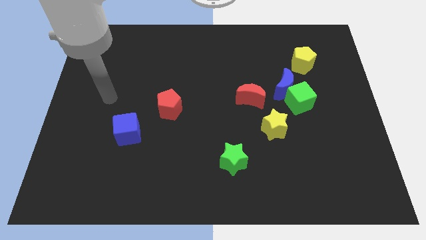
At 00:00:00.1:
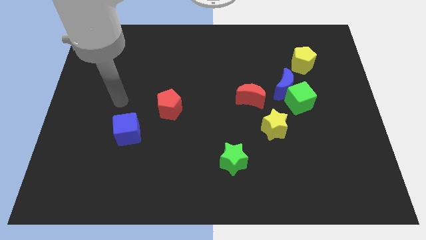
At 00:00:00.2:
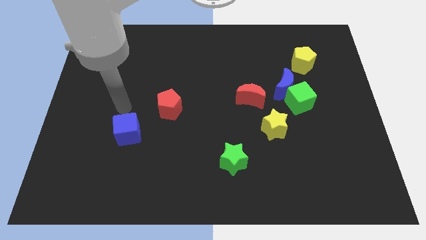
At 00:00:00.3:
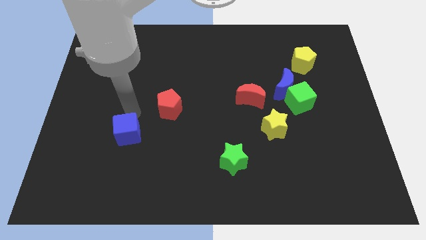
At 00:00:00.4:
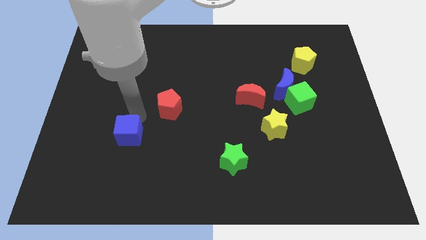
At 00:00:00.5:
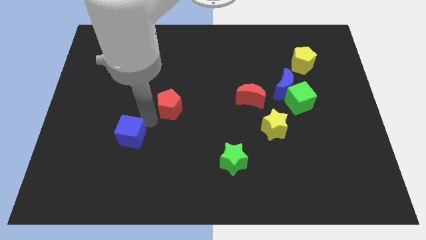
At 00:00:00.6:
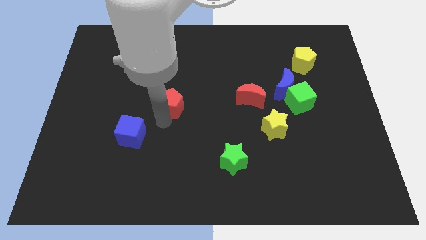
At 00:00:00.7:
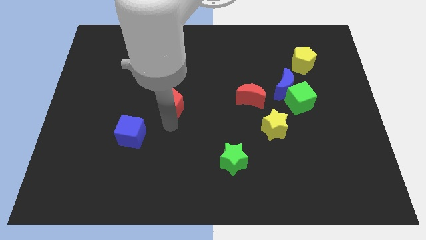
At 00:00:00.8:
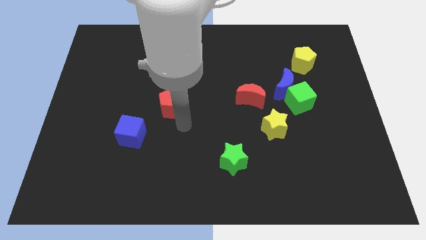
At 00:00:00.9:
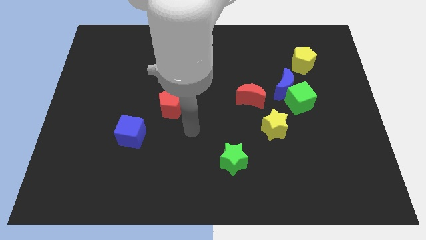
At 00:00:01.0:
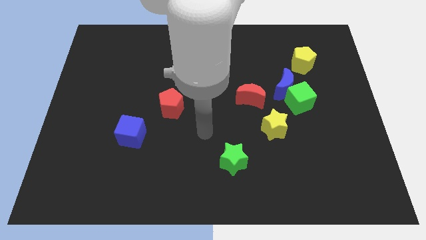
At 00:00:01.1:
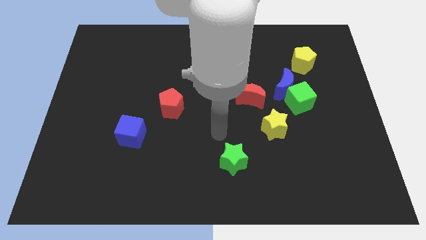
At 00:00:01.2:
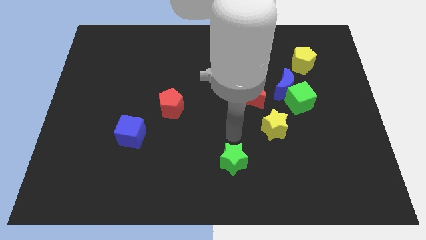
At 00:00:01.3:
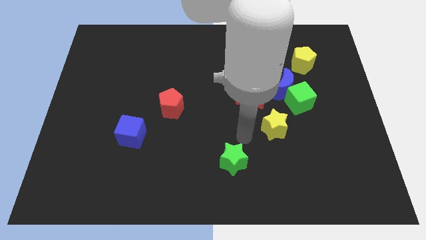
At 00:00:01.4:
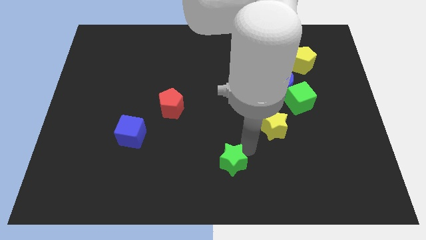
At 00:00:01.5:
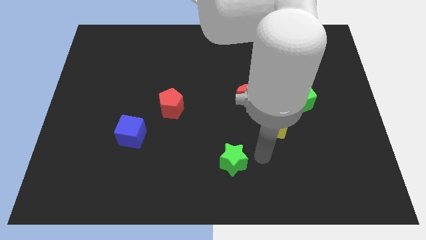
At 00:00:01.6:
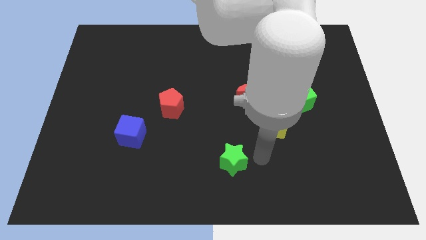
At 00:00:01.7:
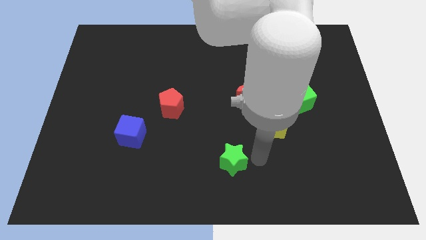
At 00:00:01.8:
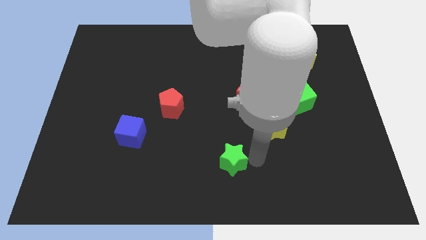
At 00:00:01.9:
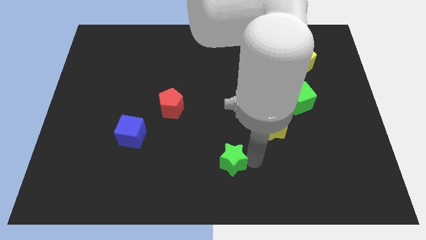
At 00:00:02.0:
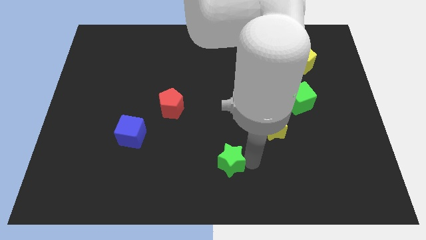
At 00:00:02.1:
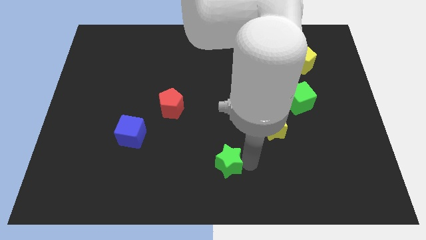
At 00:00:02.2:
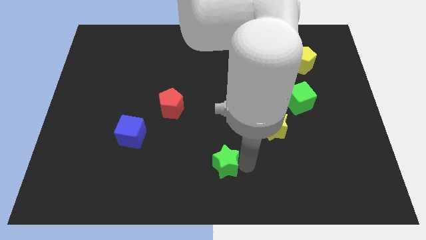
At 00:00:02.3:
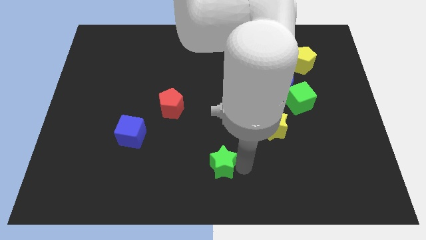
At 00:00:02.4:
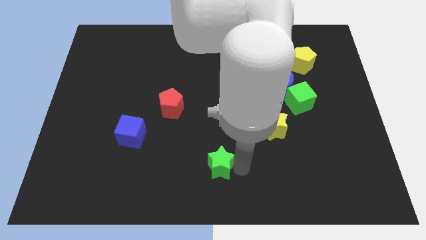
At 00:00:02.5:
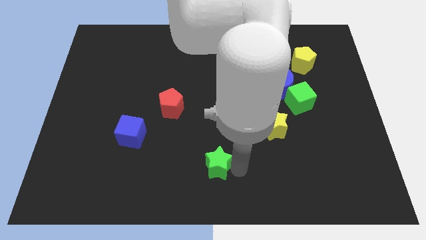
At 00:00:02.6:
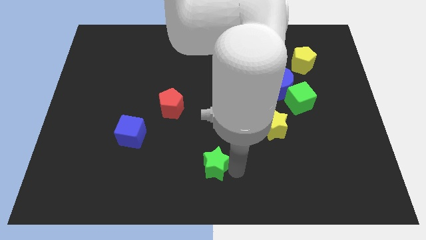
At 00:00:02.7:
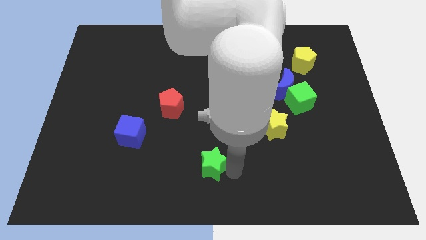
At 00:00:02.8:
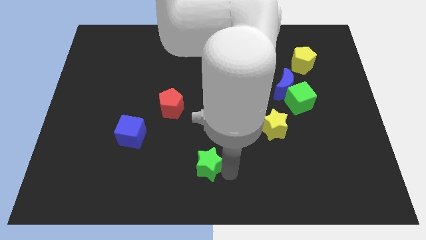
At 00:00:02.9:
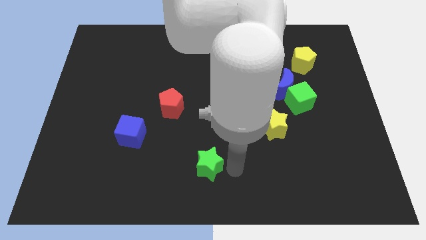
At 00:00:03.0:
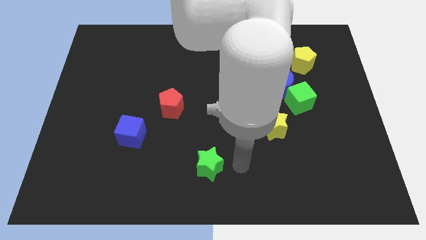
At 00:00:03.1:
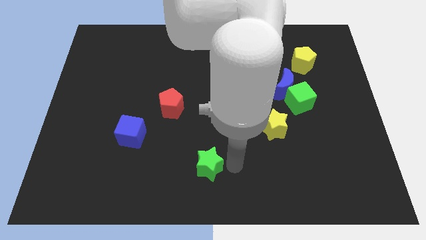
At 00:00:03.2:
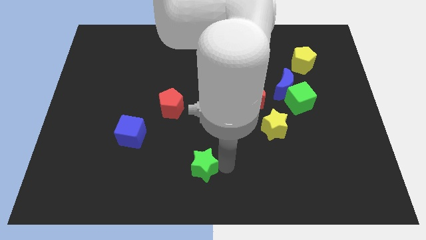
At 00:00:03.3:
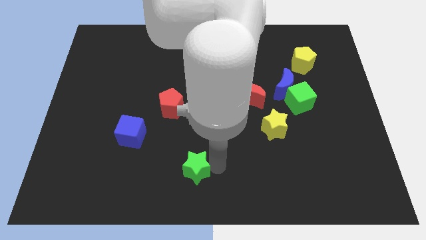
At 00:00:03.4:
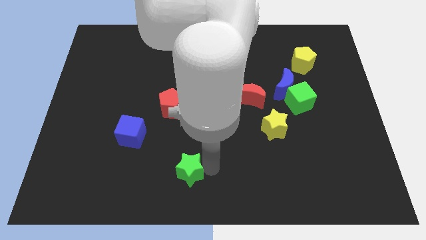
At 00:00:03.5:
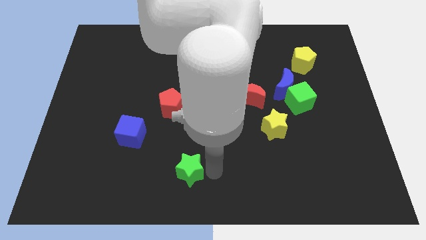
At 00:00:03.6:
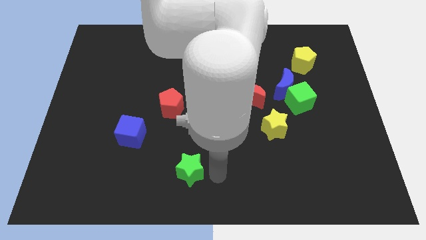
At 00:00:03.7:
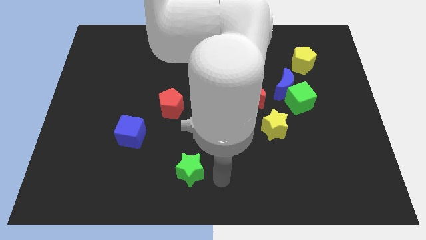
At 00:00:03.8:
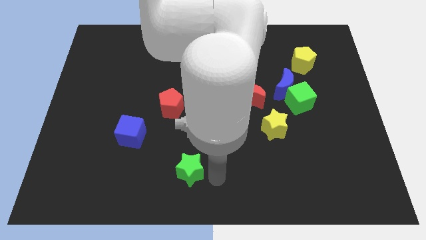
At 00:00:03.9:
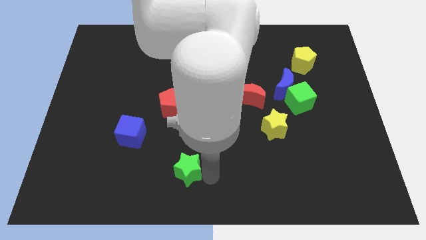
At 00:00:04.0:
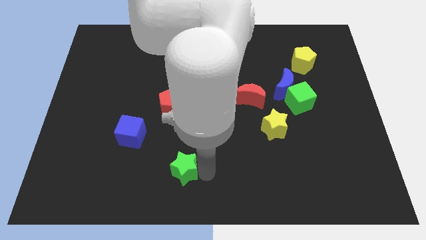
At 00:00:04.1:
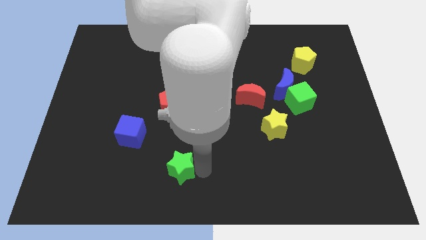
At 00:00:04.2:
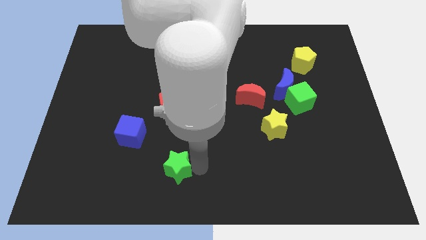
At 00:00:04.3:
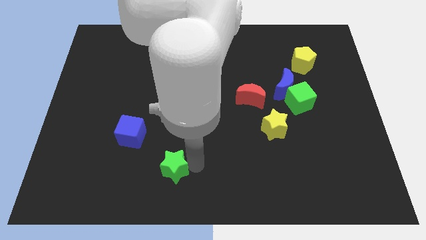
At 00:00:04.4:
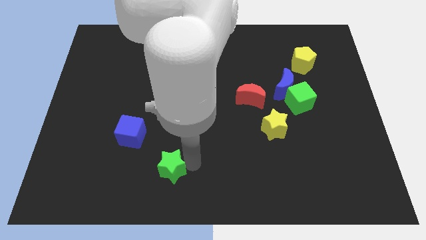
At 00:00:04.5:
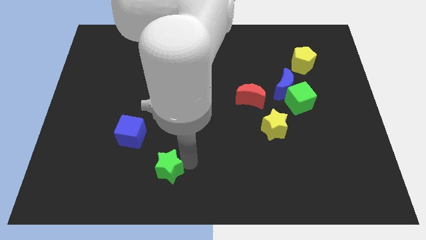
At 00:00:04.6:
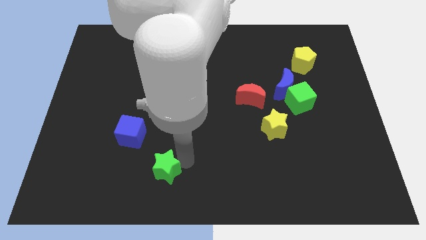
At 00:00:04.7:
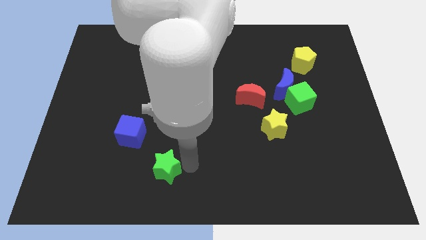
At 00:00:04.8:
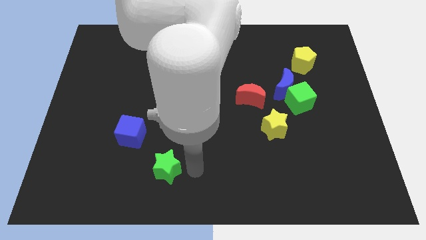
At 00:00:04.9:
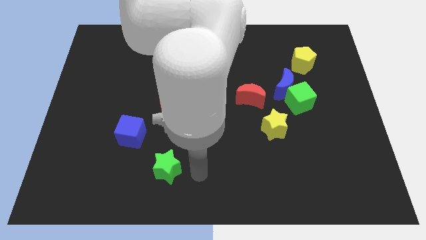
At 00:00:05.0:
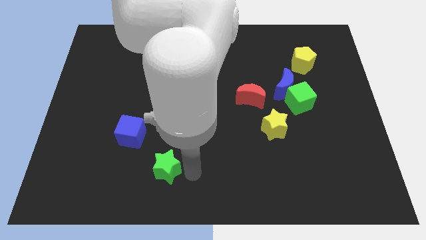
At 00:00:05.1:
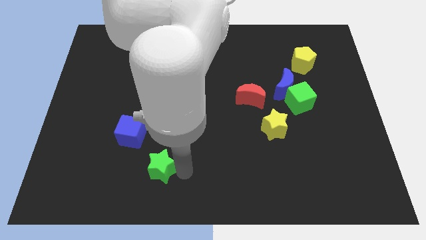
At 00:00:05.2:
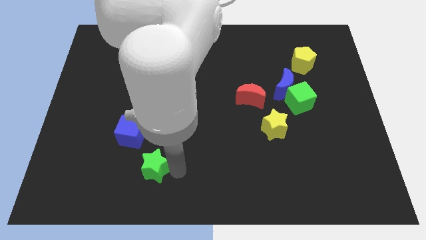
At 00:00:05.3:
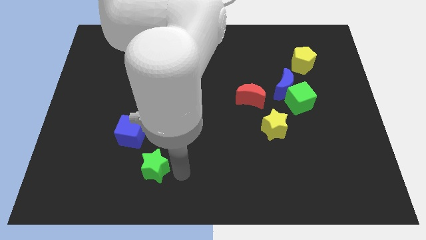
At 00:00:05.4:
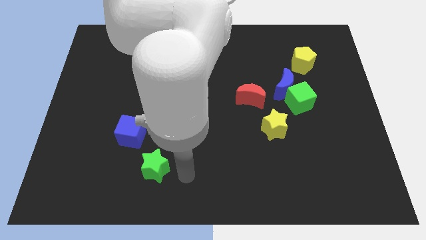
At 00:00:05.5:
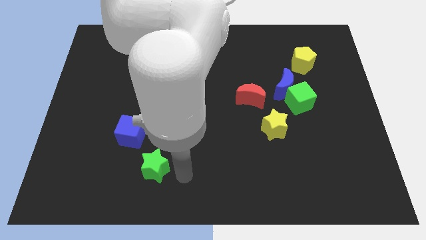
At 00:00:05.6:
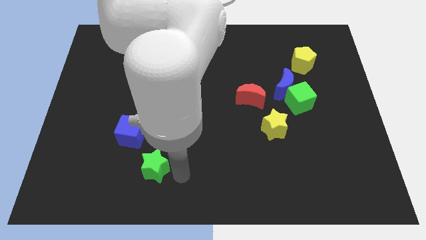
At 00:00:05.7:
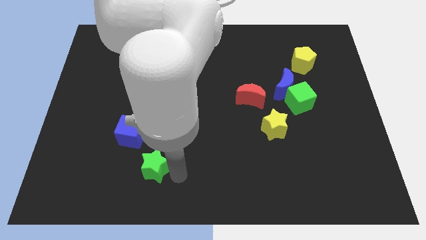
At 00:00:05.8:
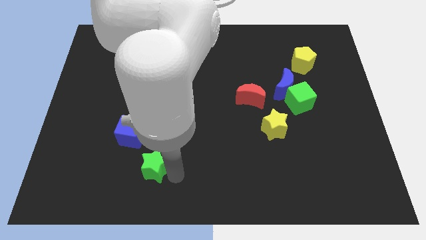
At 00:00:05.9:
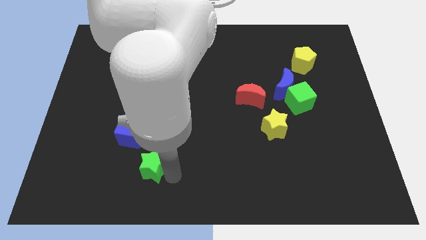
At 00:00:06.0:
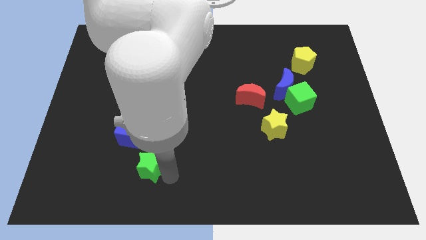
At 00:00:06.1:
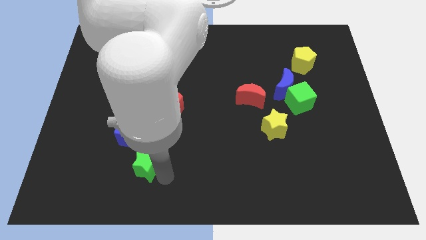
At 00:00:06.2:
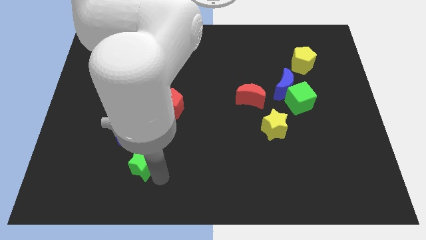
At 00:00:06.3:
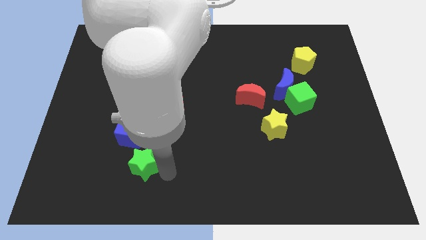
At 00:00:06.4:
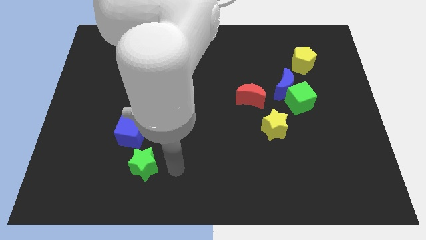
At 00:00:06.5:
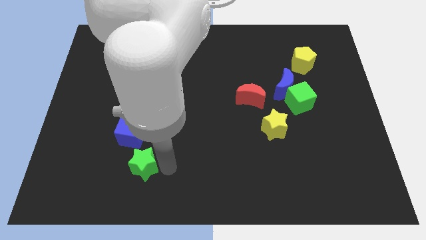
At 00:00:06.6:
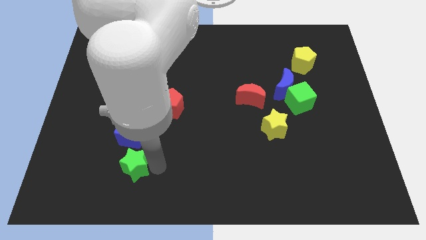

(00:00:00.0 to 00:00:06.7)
push the green star left

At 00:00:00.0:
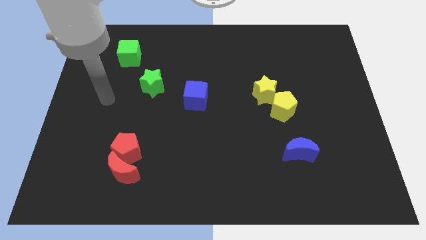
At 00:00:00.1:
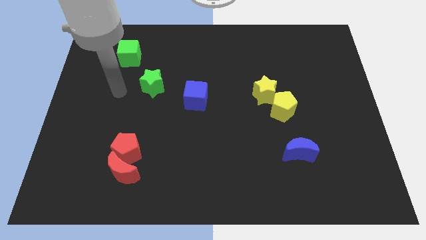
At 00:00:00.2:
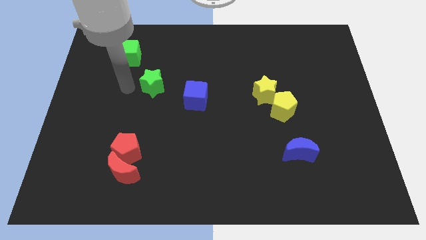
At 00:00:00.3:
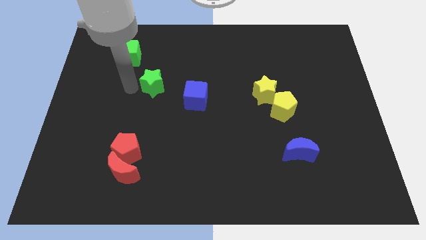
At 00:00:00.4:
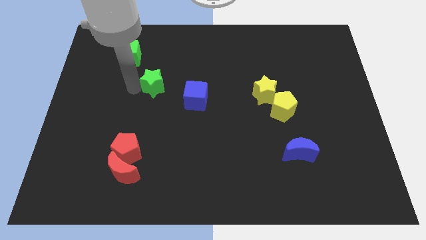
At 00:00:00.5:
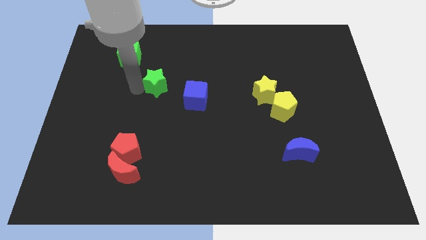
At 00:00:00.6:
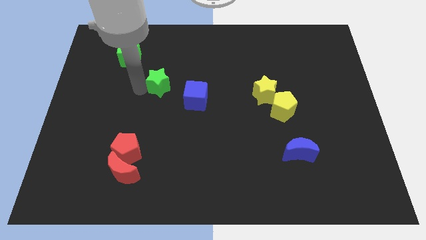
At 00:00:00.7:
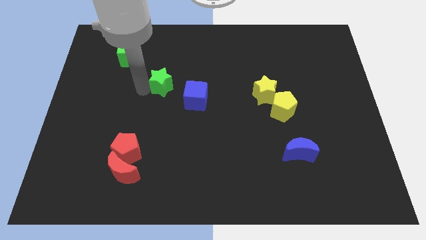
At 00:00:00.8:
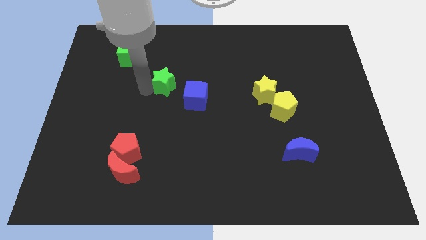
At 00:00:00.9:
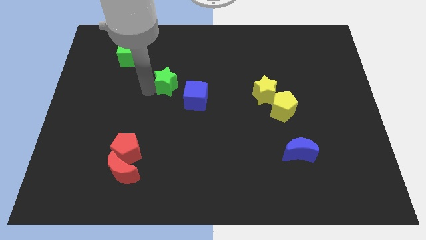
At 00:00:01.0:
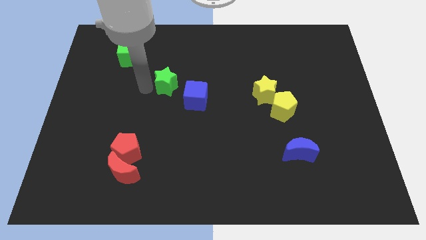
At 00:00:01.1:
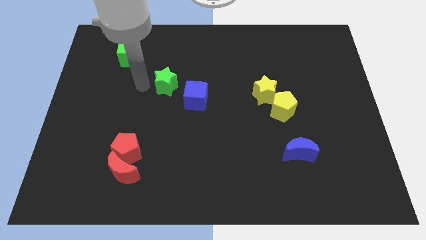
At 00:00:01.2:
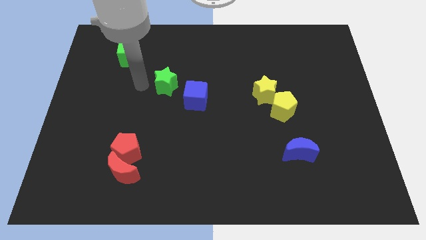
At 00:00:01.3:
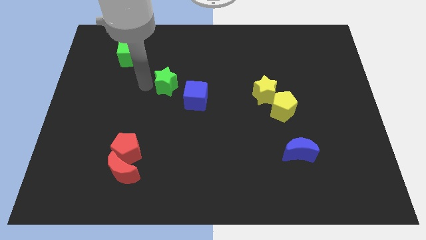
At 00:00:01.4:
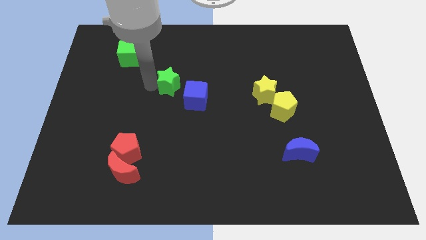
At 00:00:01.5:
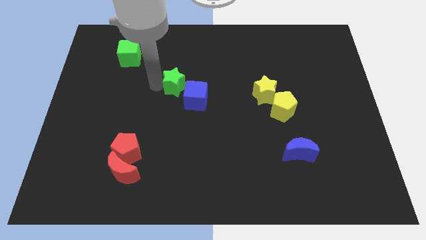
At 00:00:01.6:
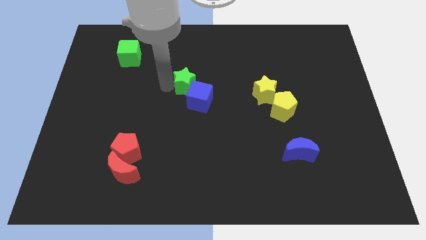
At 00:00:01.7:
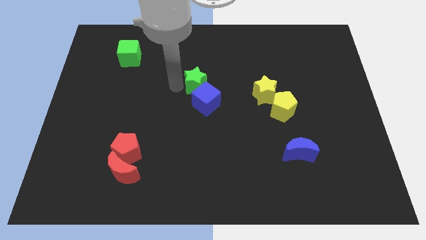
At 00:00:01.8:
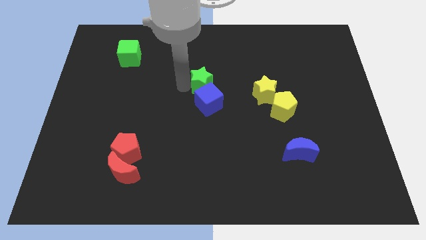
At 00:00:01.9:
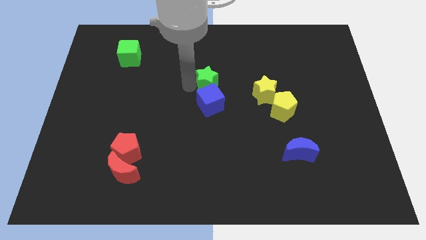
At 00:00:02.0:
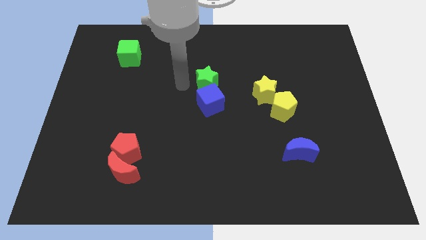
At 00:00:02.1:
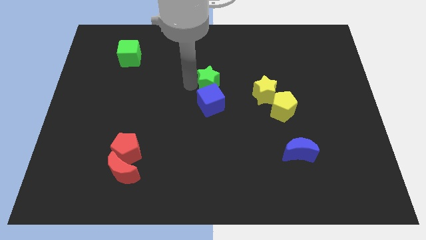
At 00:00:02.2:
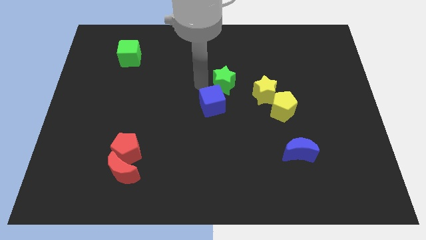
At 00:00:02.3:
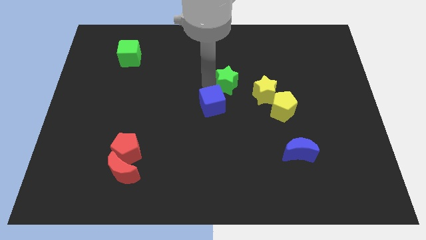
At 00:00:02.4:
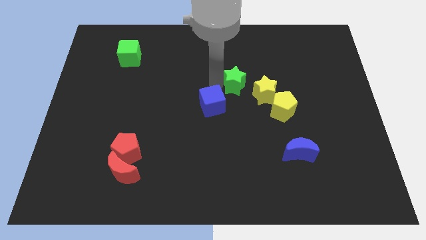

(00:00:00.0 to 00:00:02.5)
push the green star to the right
